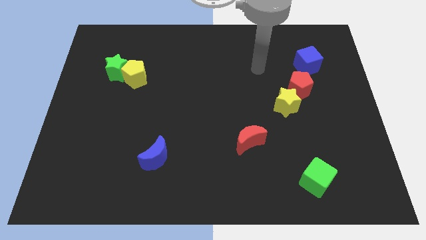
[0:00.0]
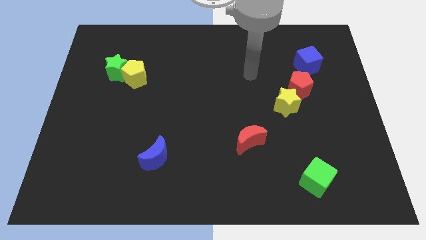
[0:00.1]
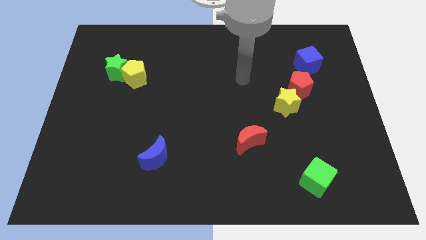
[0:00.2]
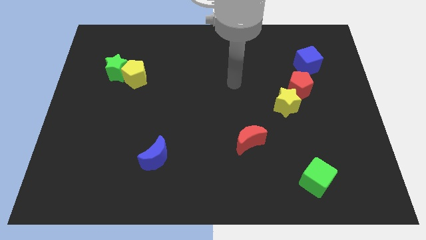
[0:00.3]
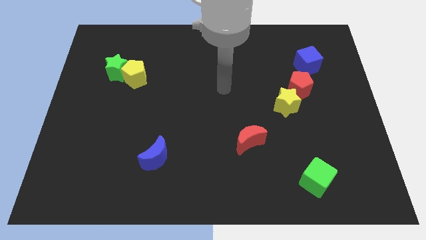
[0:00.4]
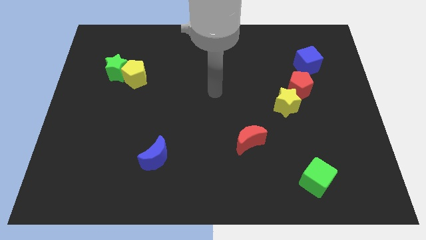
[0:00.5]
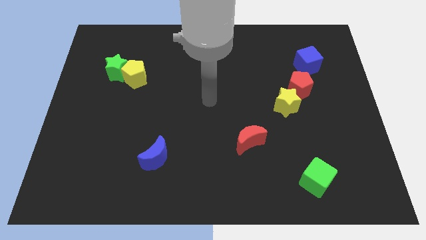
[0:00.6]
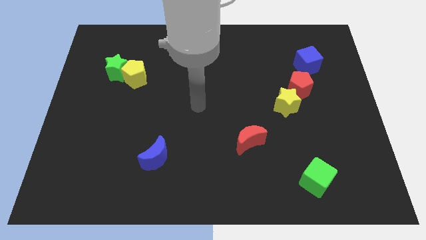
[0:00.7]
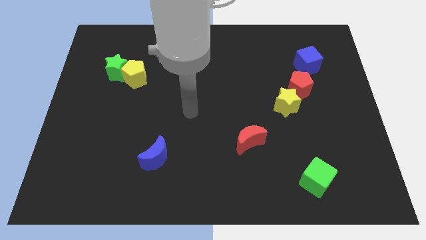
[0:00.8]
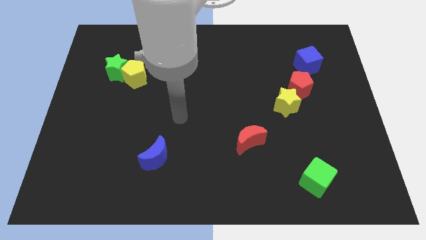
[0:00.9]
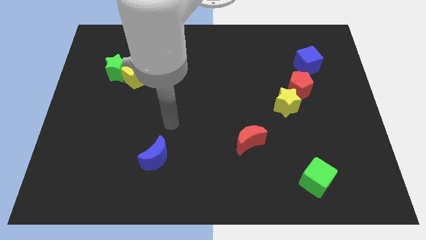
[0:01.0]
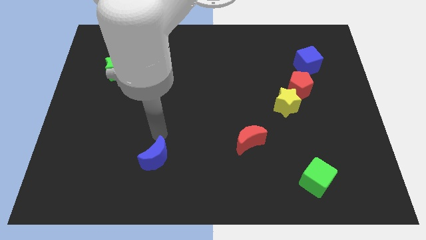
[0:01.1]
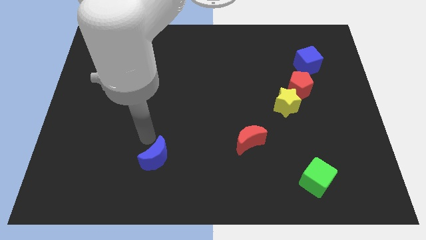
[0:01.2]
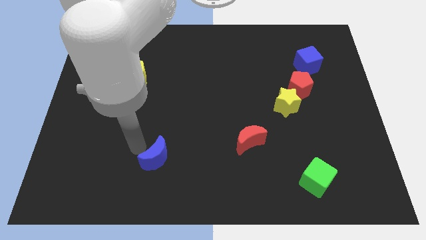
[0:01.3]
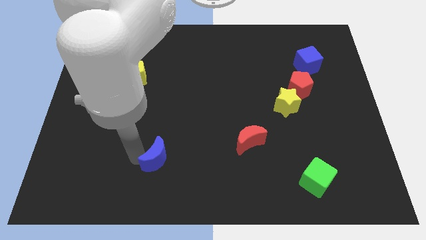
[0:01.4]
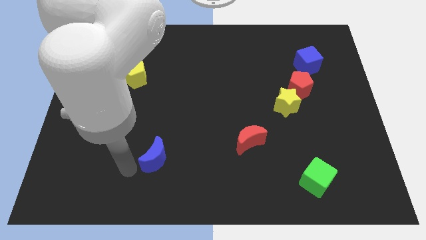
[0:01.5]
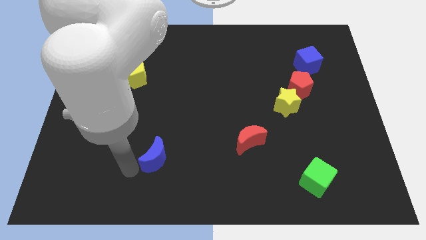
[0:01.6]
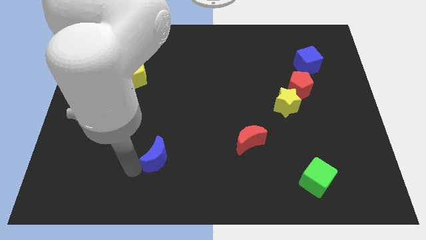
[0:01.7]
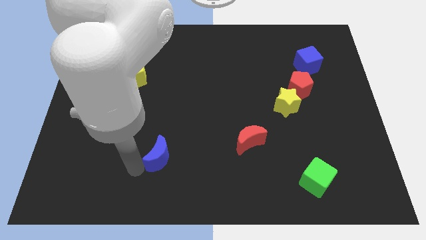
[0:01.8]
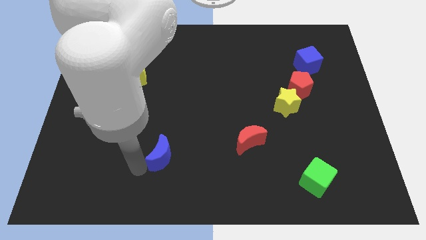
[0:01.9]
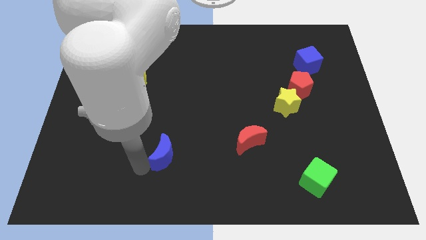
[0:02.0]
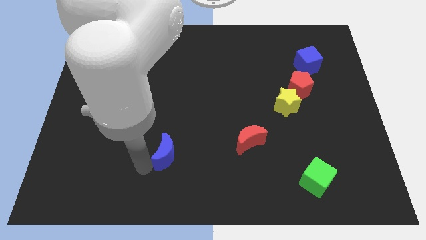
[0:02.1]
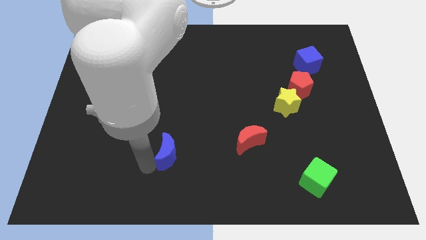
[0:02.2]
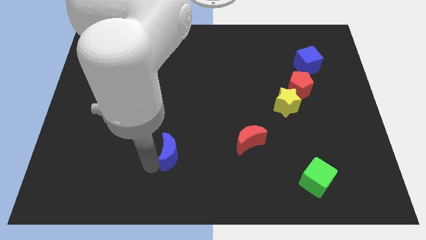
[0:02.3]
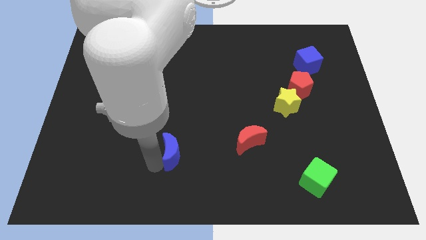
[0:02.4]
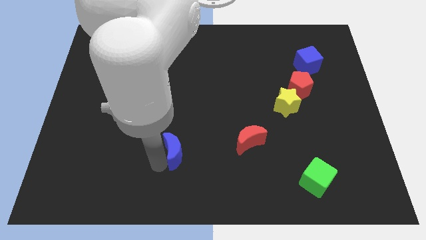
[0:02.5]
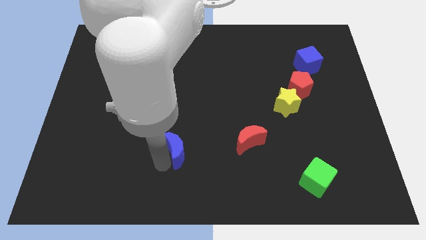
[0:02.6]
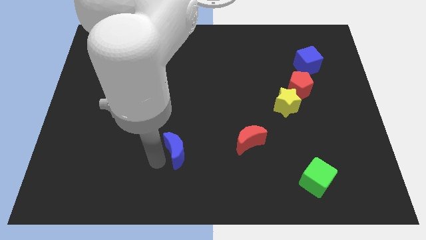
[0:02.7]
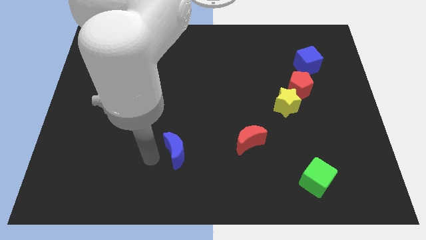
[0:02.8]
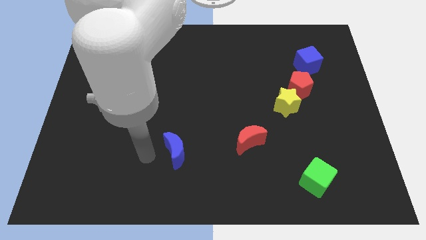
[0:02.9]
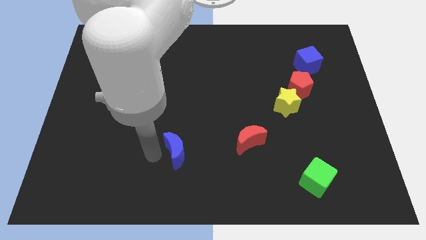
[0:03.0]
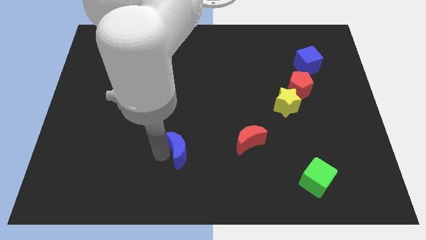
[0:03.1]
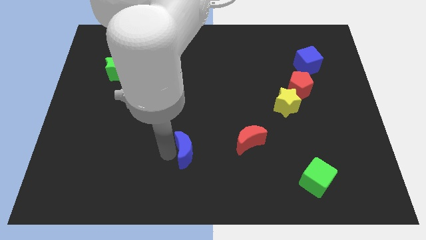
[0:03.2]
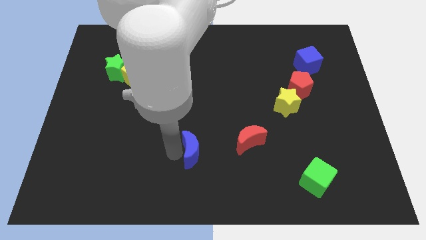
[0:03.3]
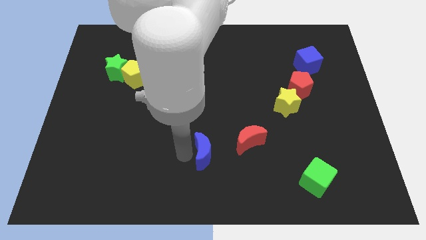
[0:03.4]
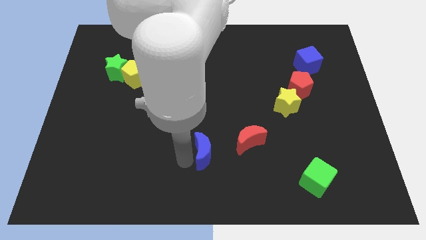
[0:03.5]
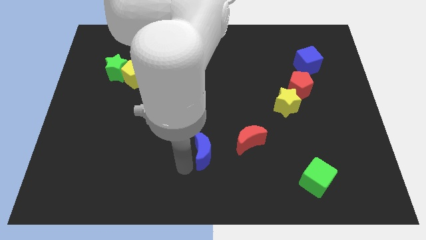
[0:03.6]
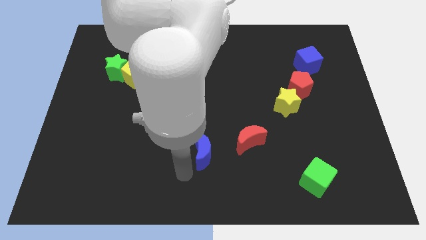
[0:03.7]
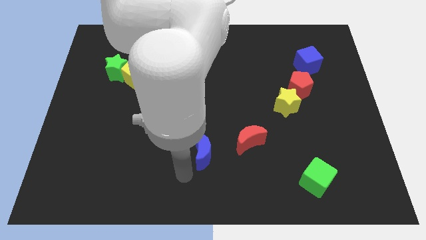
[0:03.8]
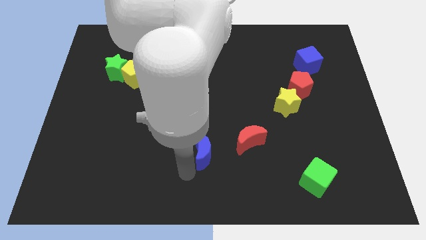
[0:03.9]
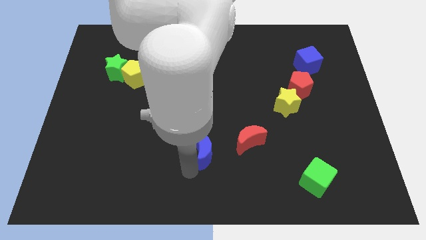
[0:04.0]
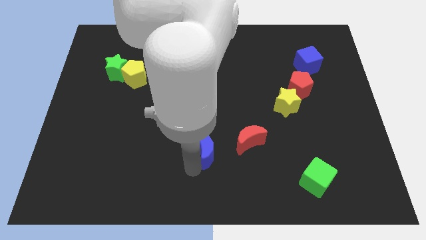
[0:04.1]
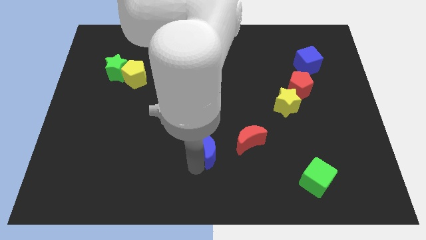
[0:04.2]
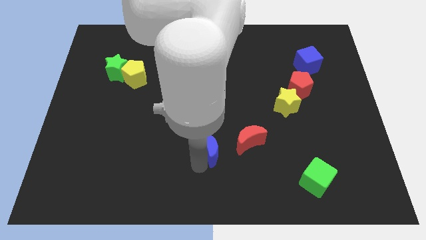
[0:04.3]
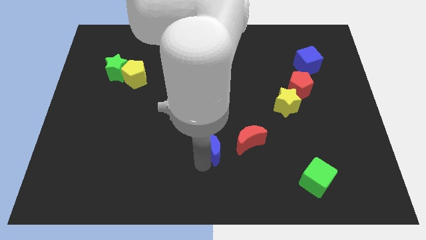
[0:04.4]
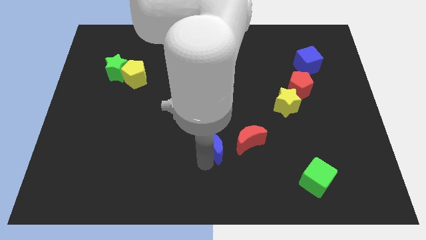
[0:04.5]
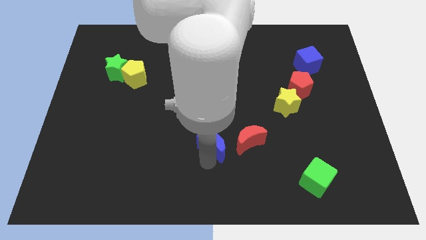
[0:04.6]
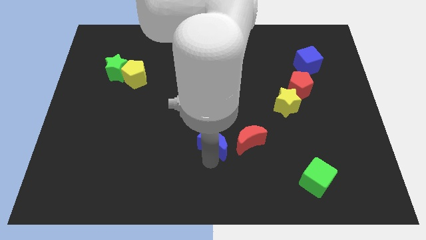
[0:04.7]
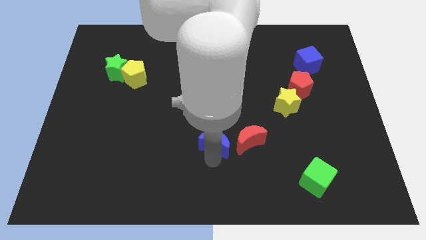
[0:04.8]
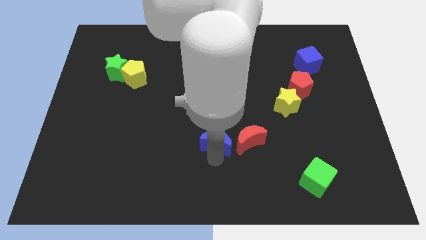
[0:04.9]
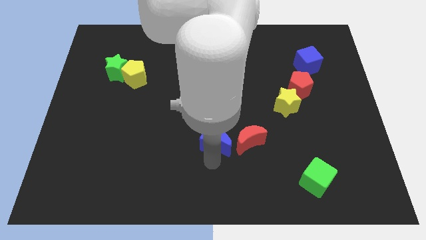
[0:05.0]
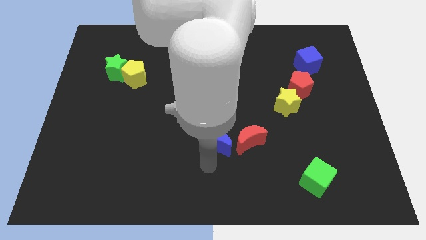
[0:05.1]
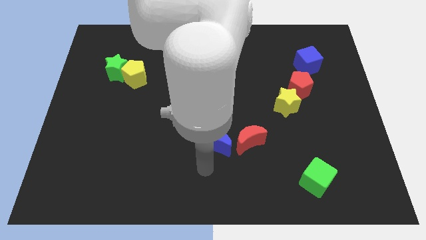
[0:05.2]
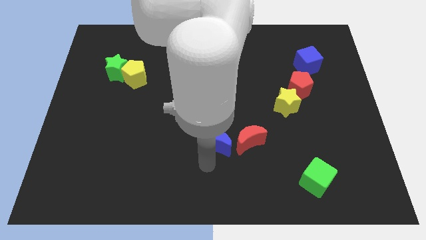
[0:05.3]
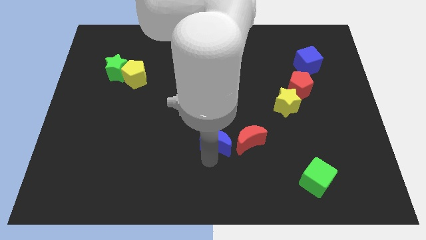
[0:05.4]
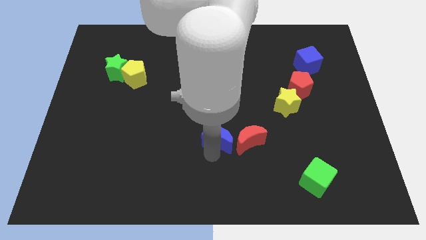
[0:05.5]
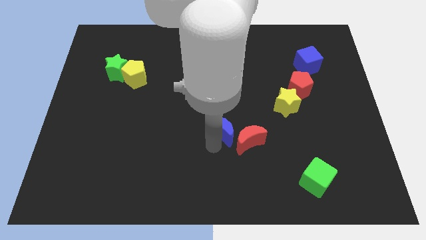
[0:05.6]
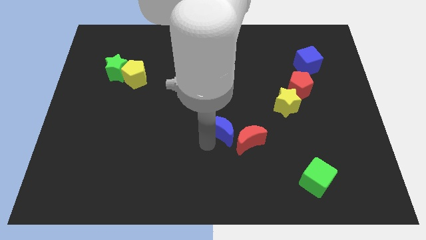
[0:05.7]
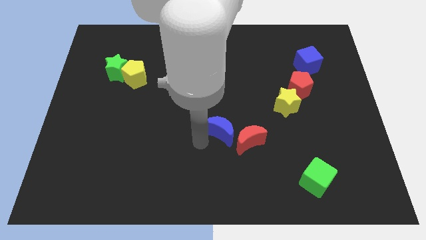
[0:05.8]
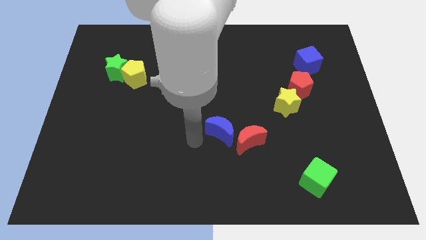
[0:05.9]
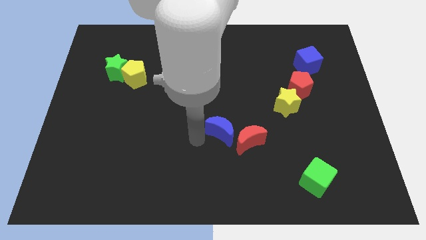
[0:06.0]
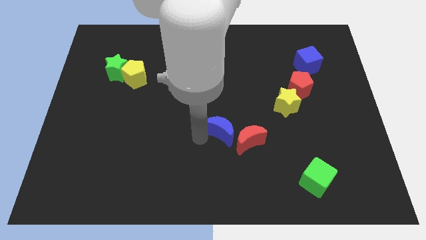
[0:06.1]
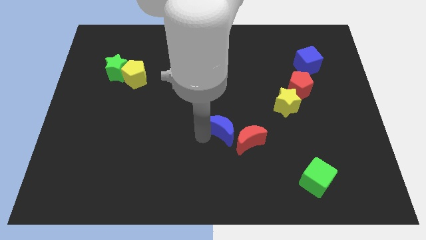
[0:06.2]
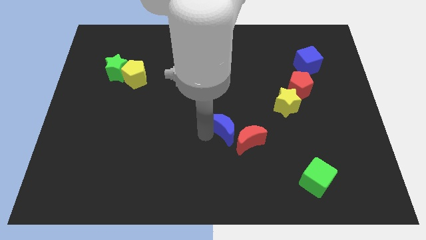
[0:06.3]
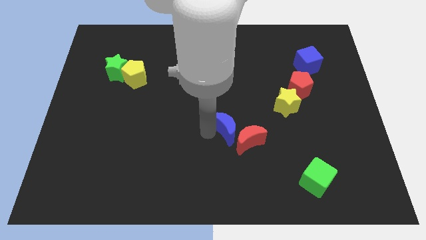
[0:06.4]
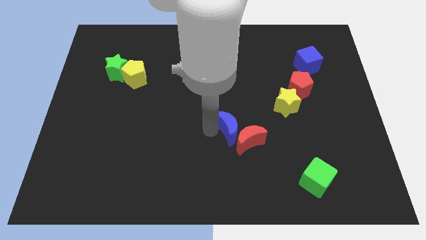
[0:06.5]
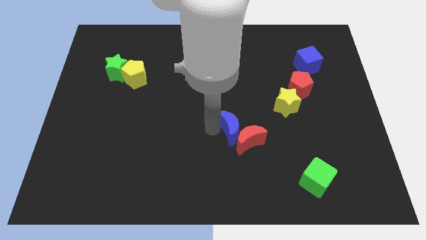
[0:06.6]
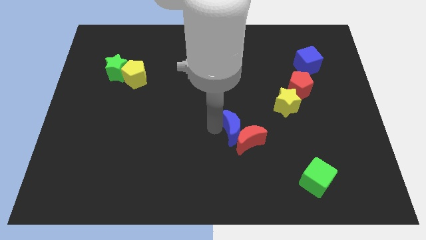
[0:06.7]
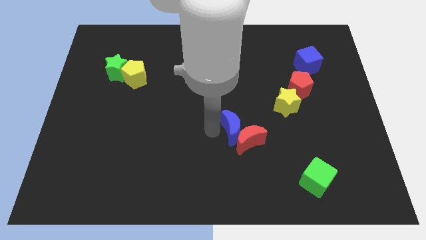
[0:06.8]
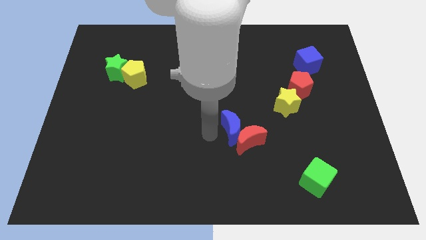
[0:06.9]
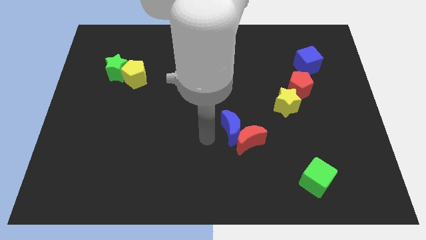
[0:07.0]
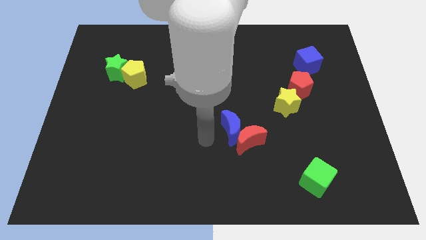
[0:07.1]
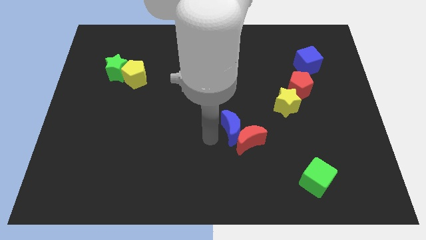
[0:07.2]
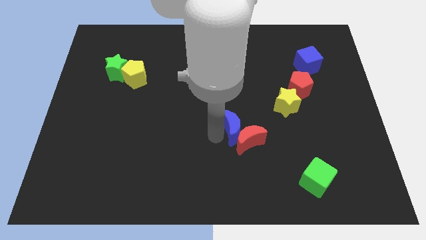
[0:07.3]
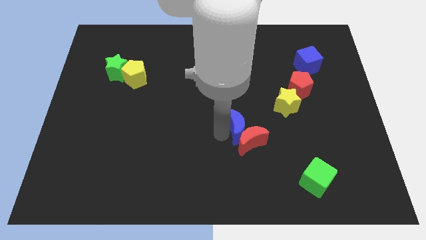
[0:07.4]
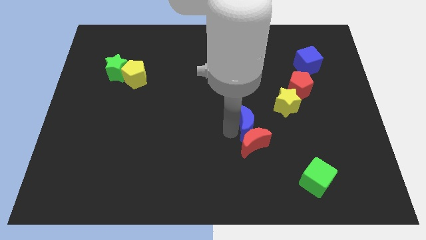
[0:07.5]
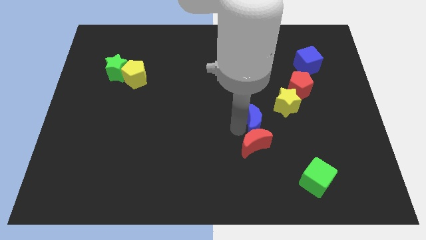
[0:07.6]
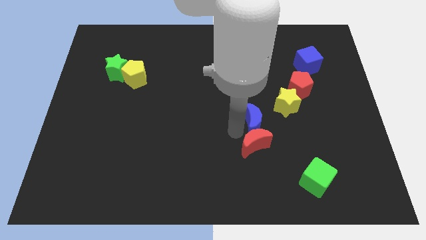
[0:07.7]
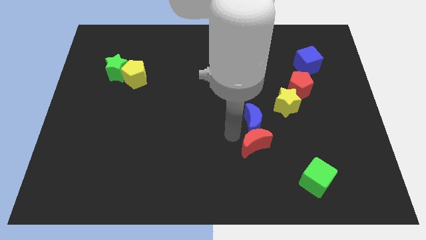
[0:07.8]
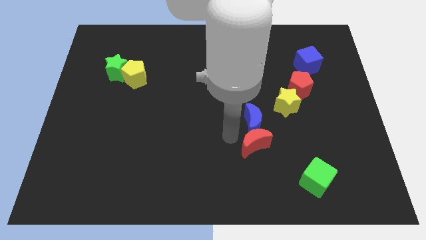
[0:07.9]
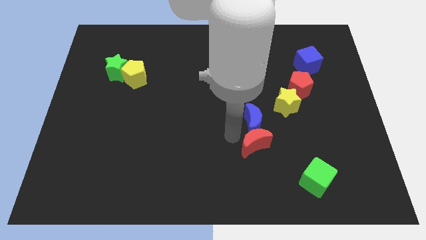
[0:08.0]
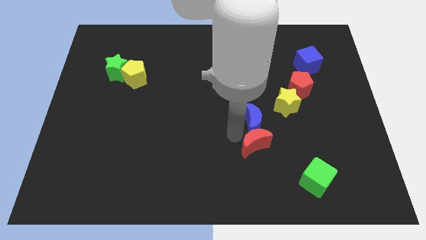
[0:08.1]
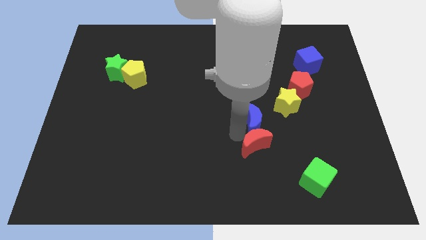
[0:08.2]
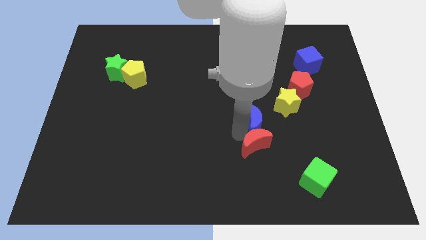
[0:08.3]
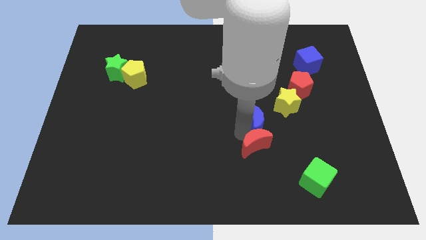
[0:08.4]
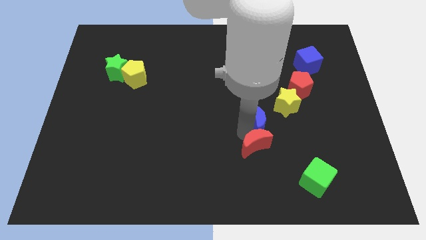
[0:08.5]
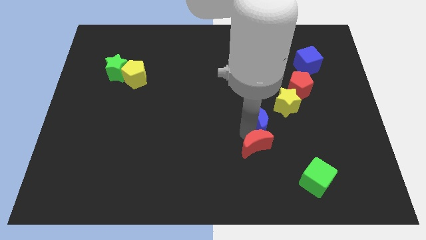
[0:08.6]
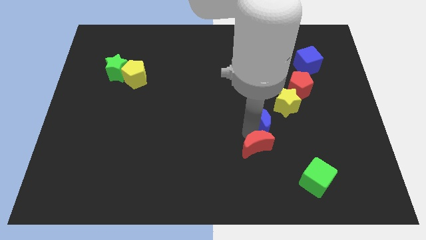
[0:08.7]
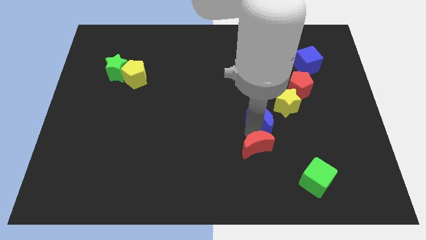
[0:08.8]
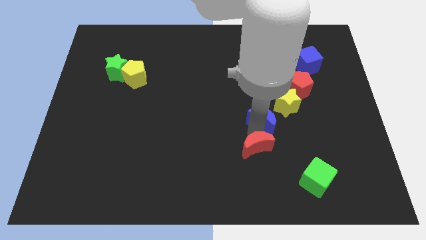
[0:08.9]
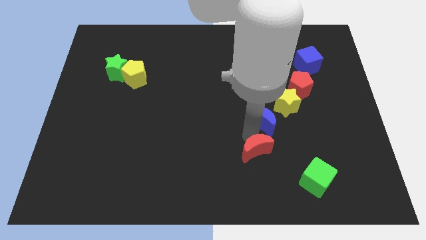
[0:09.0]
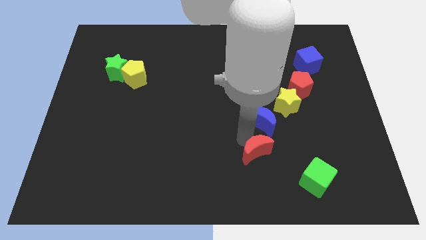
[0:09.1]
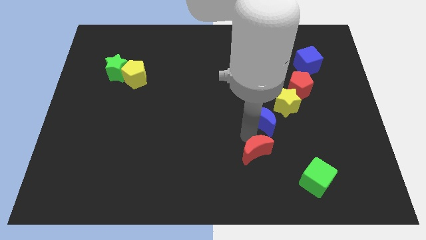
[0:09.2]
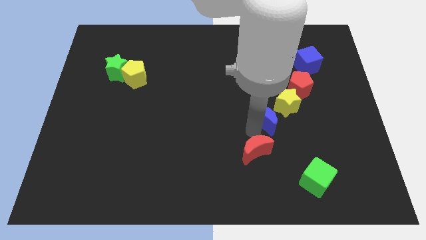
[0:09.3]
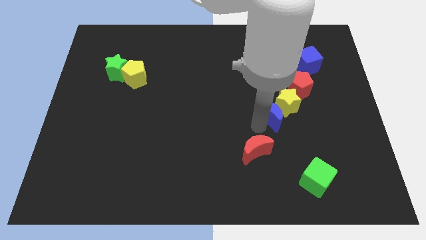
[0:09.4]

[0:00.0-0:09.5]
move the blue moon diagonally down and to the left of the red pentagon
